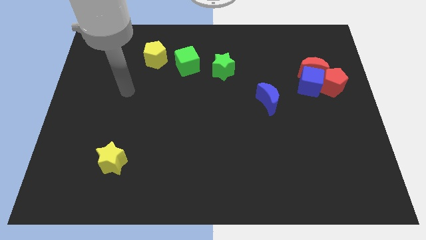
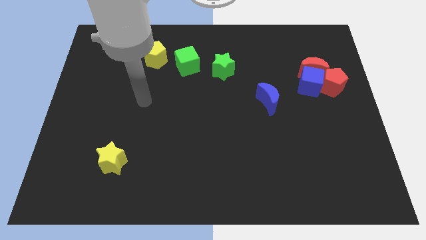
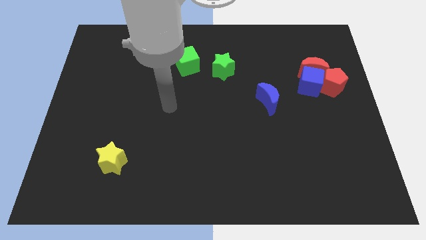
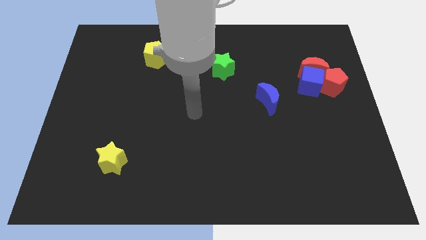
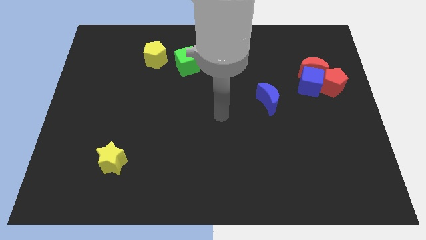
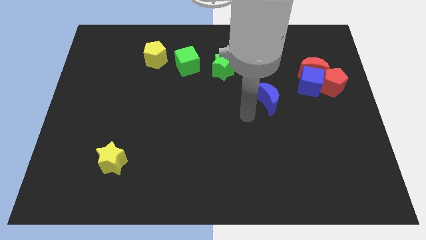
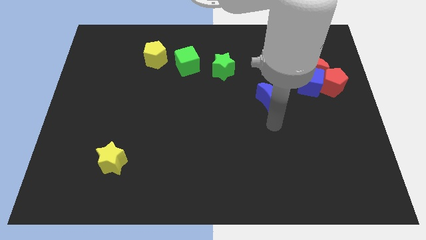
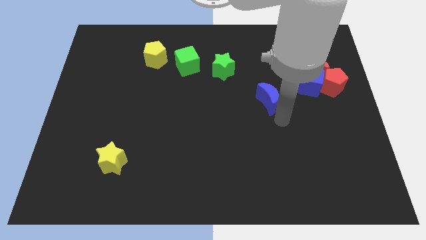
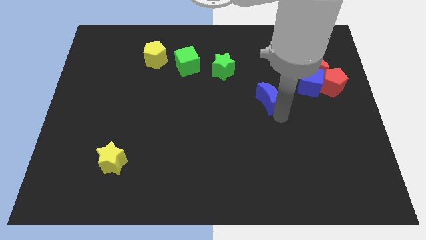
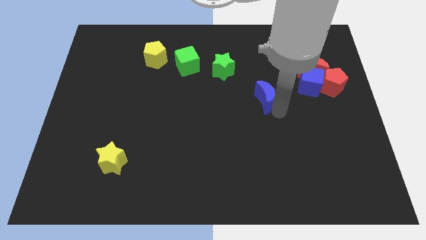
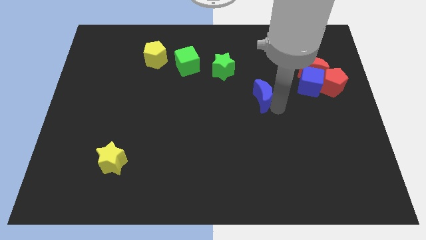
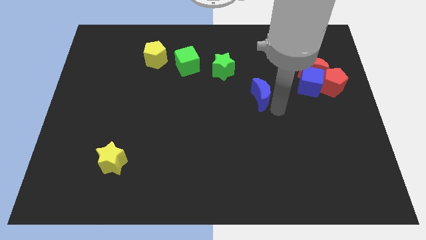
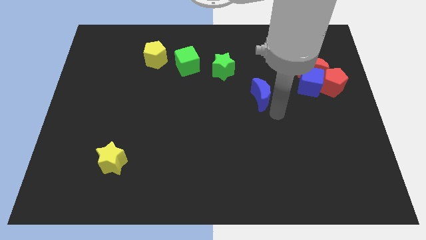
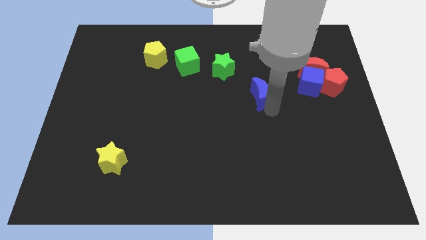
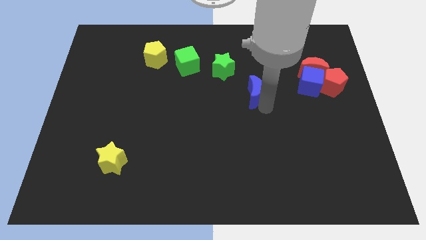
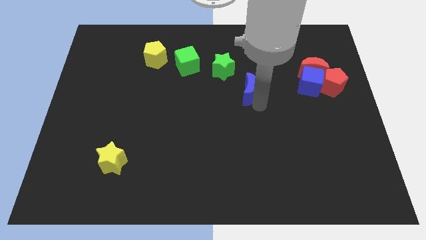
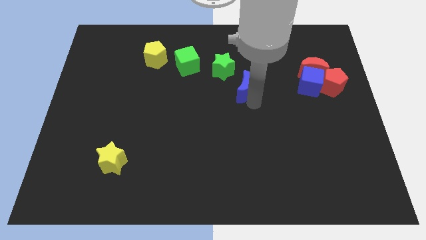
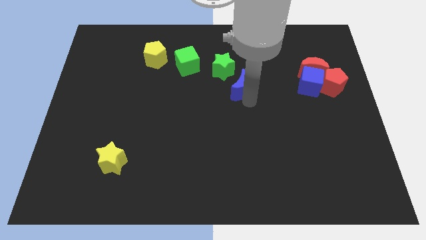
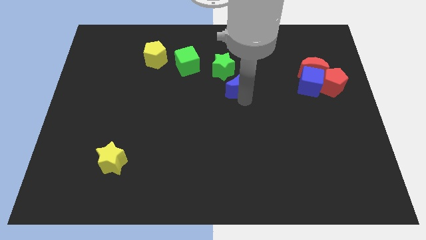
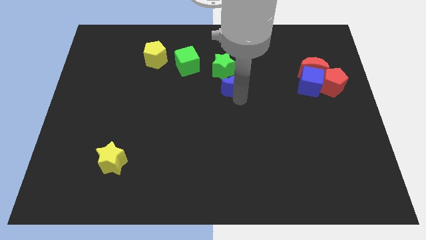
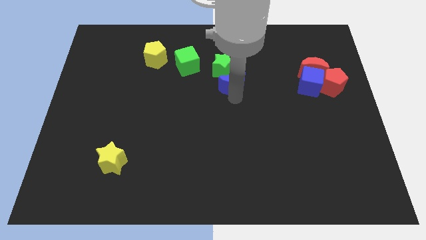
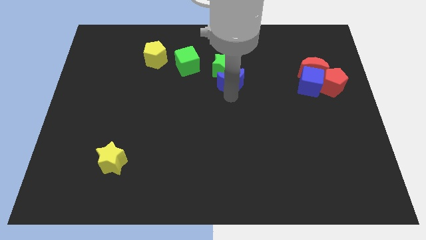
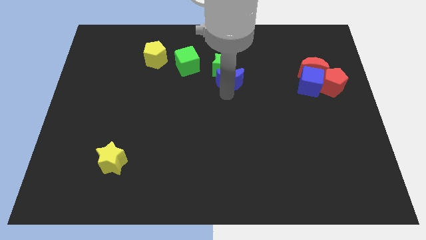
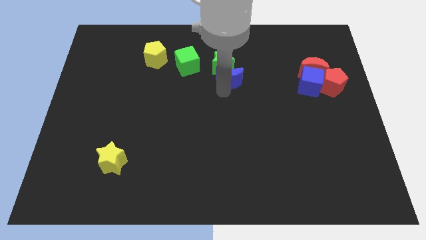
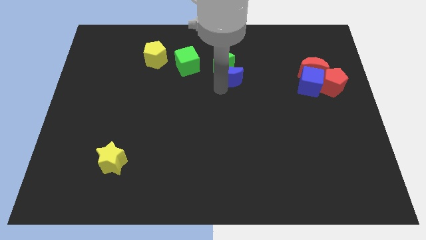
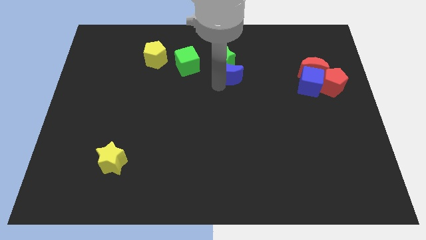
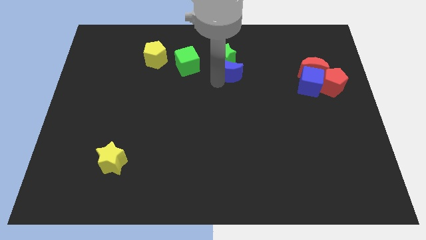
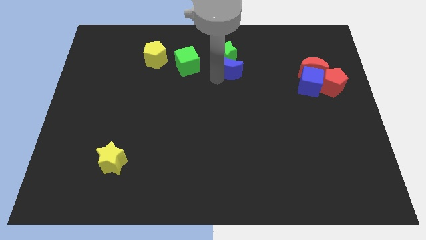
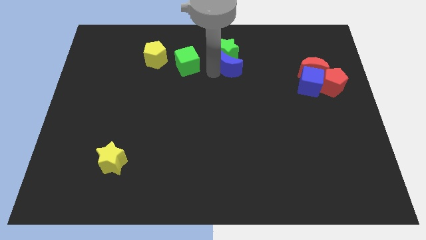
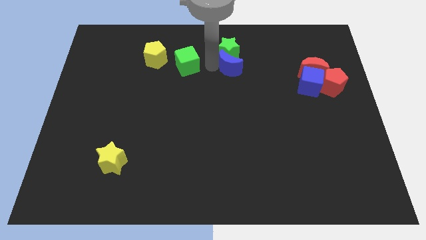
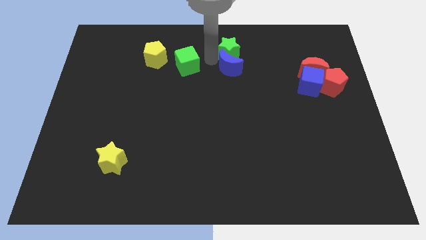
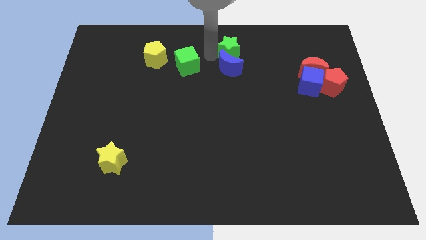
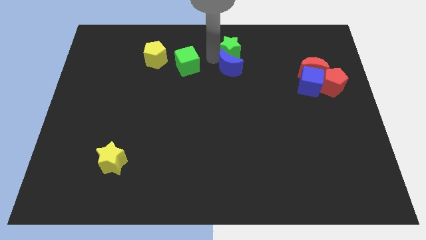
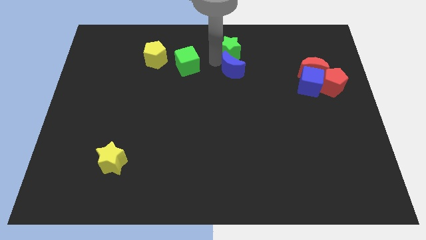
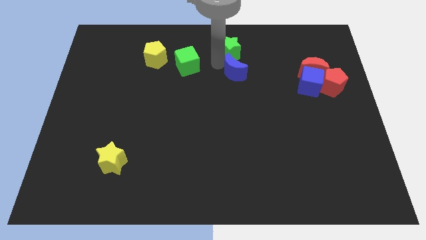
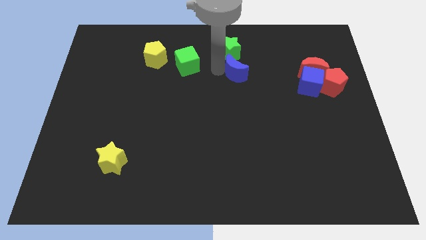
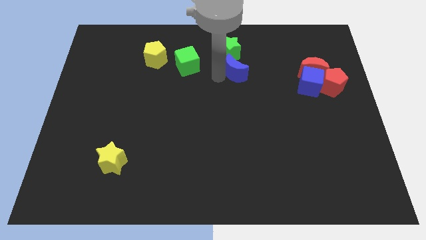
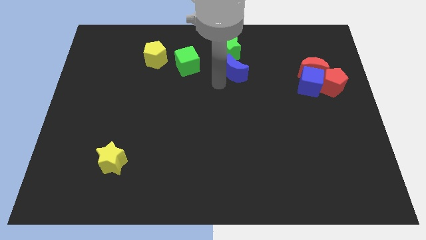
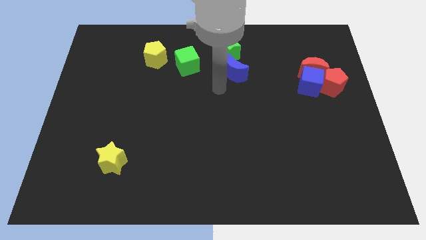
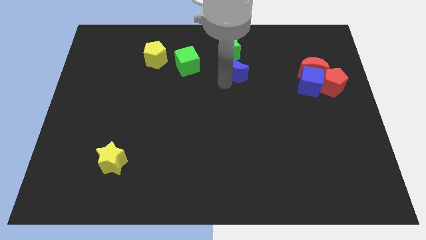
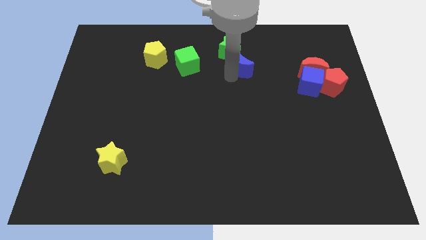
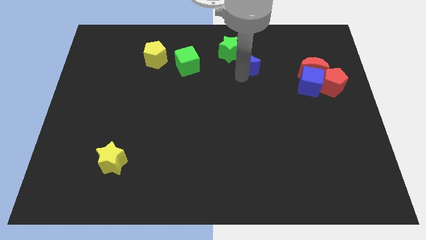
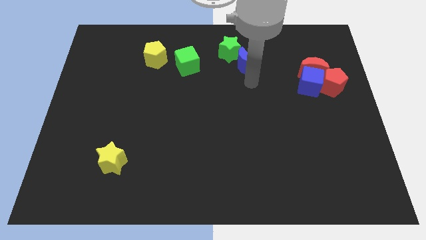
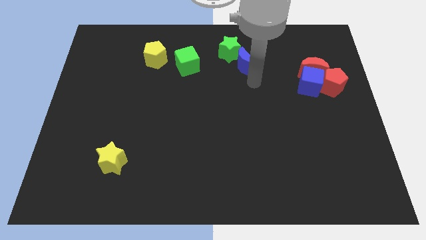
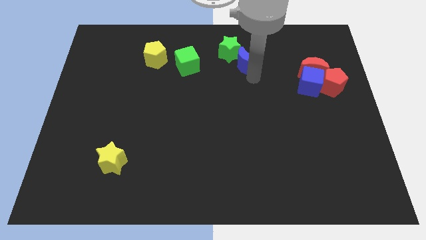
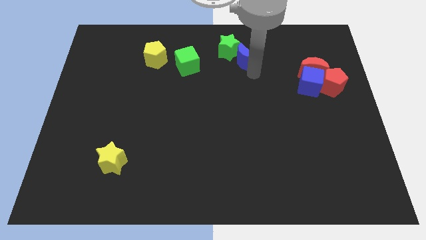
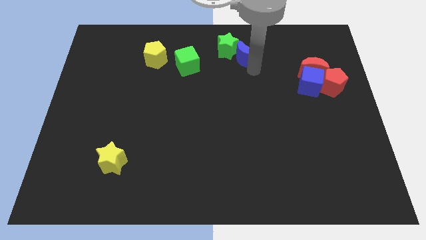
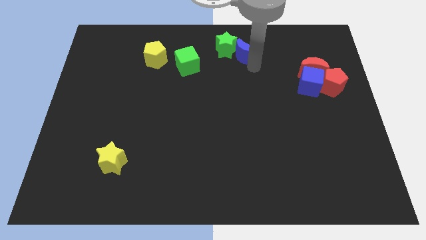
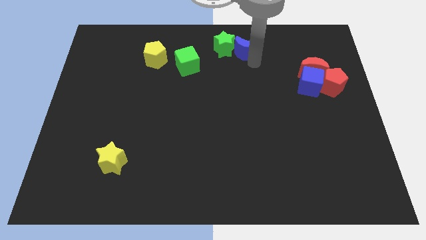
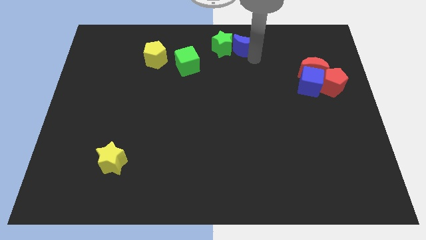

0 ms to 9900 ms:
move the blue moon to the top side

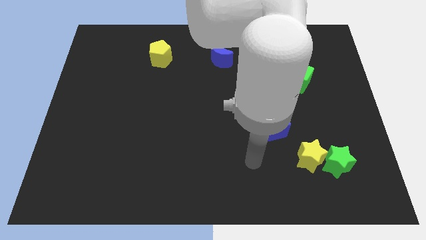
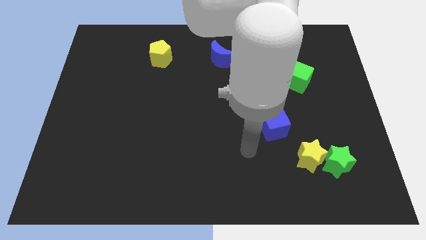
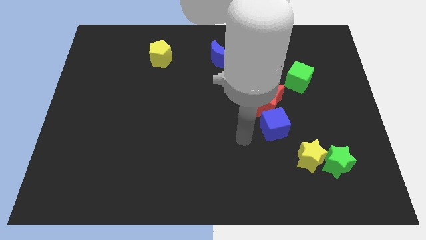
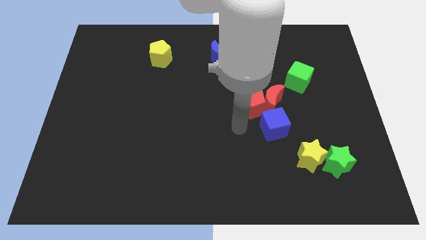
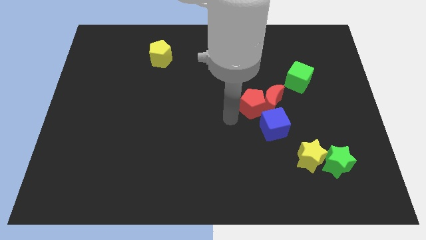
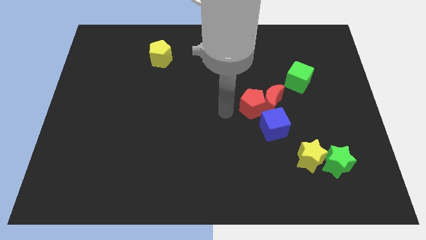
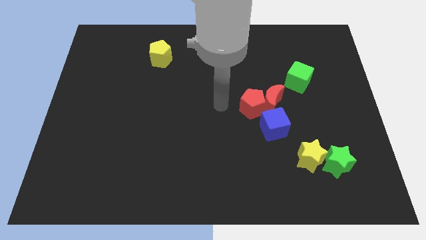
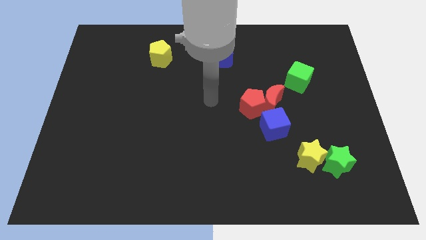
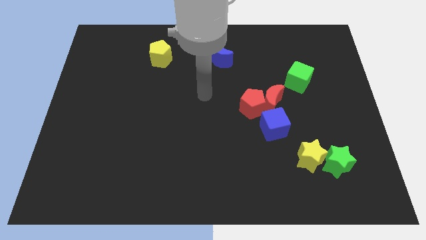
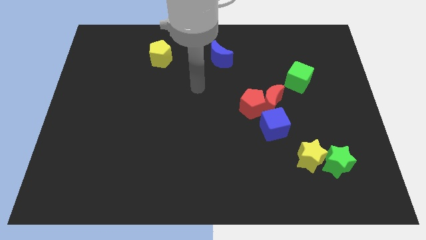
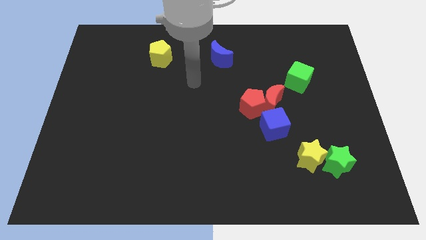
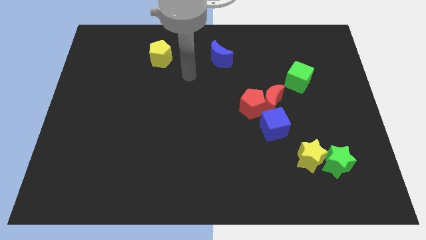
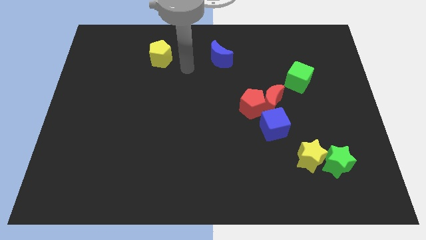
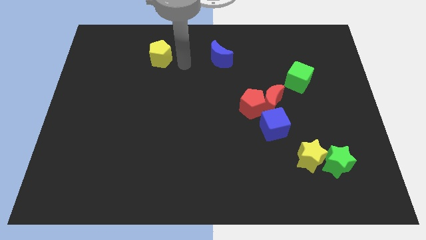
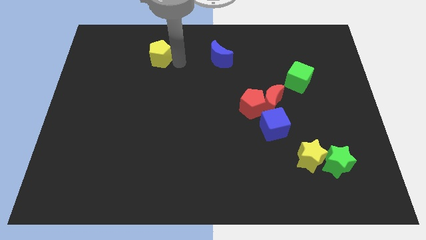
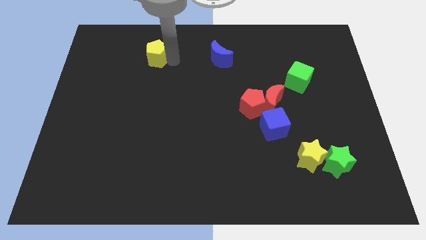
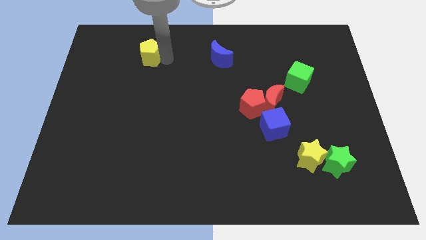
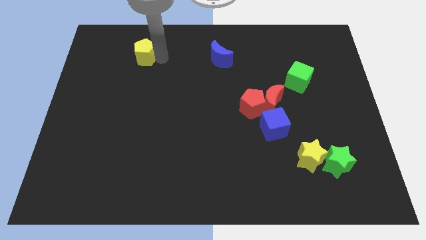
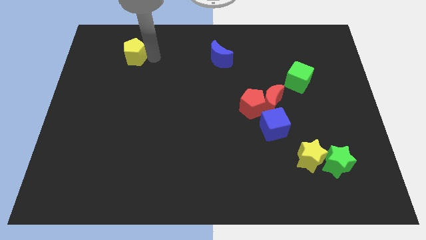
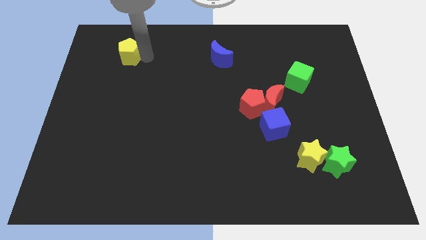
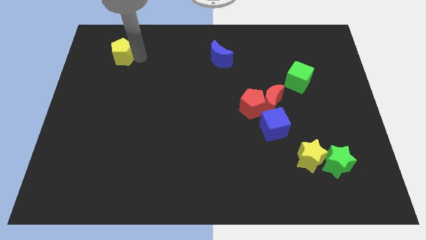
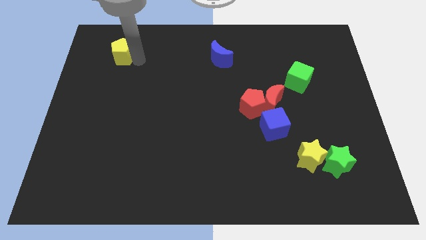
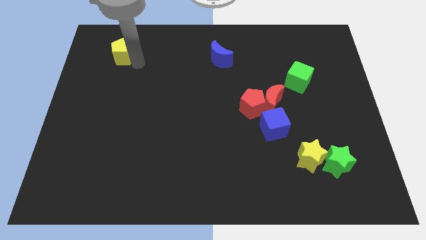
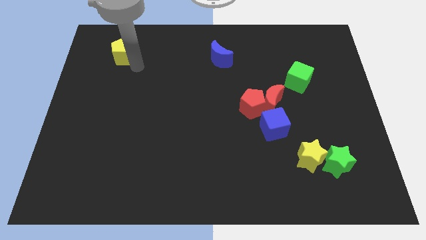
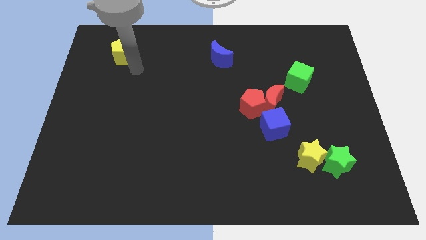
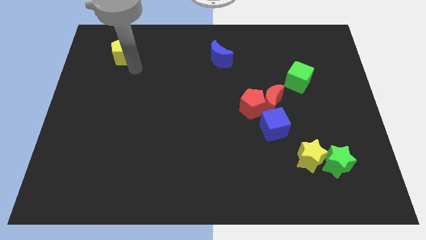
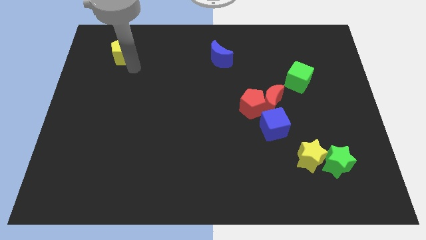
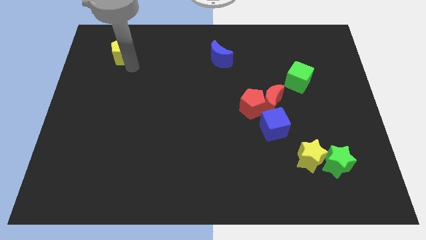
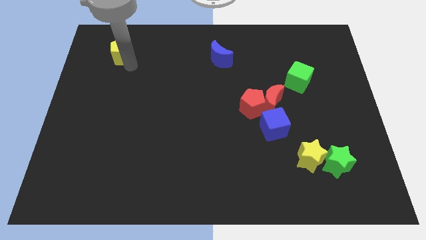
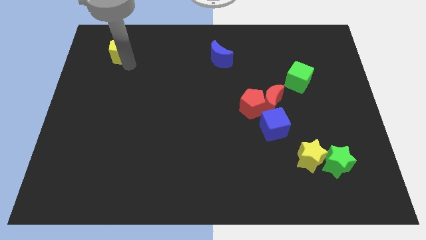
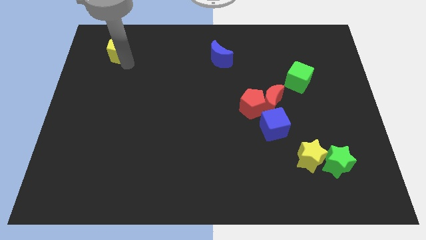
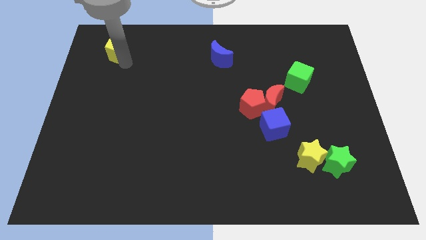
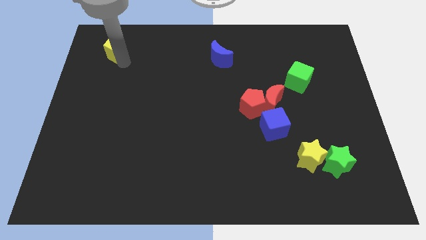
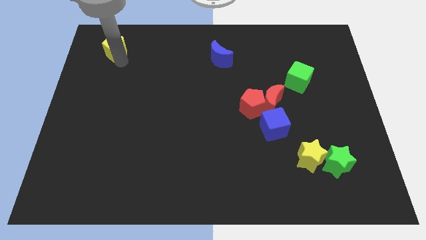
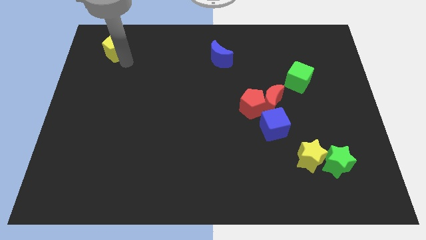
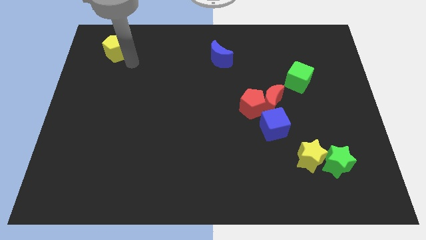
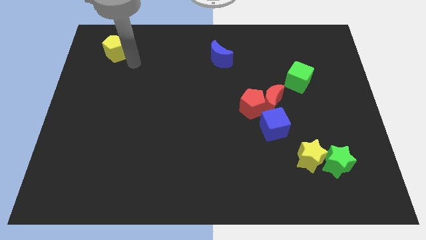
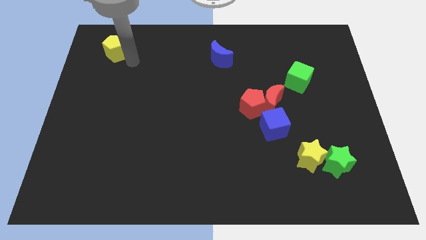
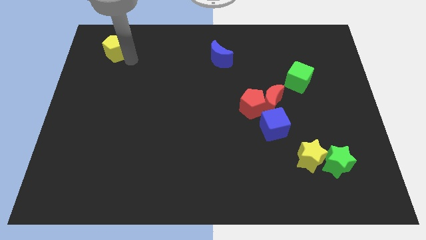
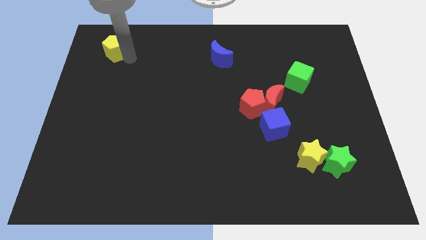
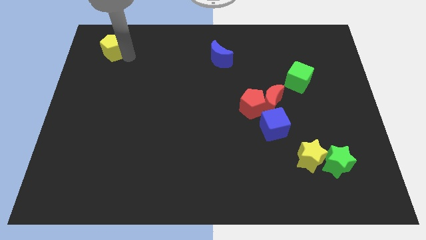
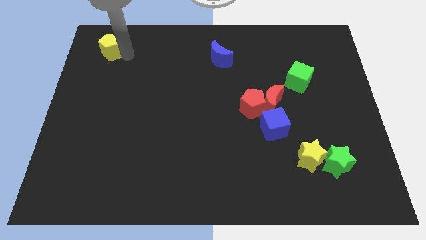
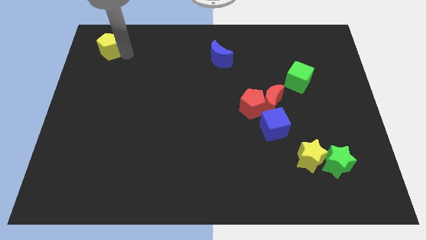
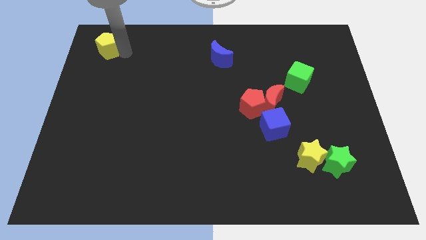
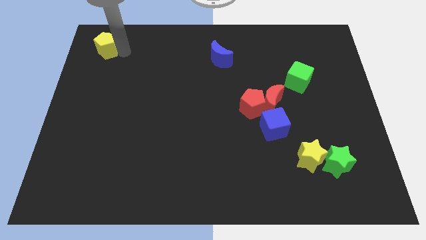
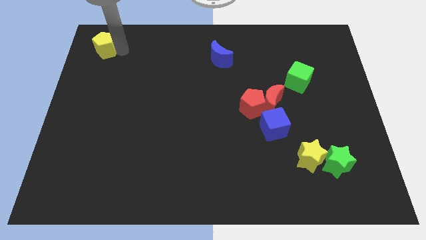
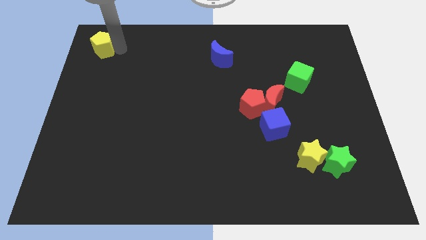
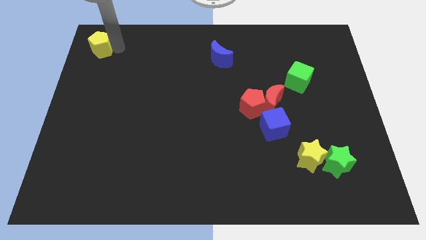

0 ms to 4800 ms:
slide the yellow pentagon to the upper left corner
